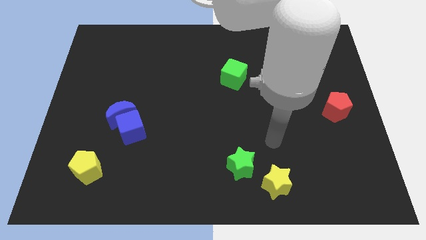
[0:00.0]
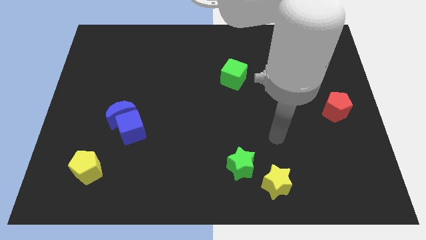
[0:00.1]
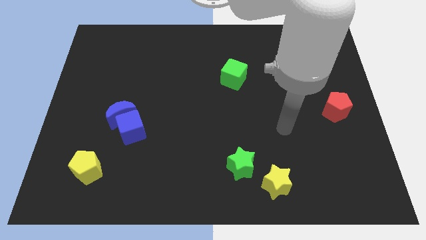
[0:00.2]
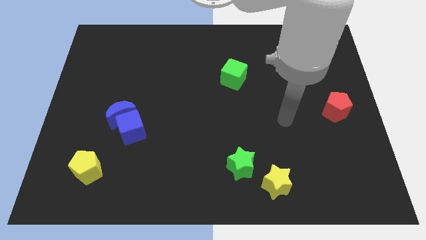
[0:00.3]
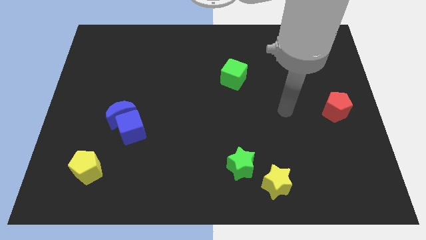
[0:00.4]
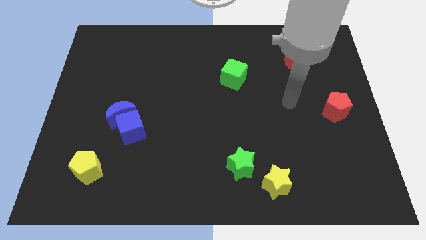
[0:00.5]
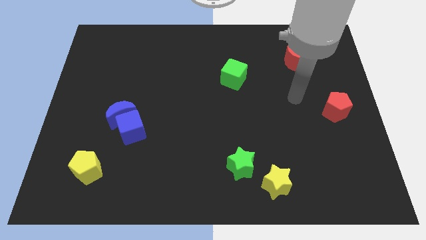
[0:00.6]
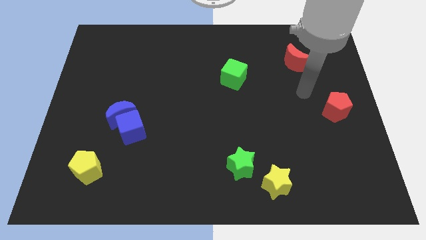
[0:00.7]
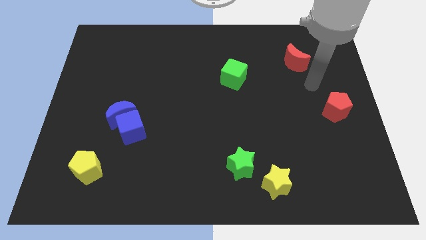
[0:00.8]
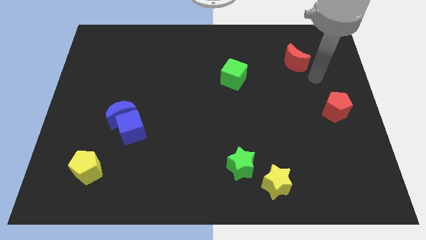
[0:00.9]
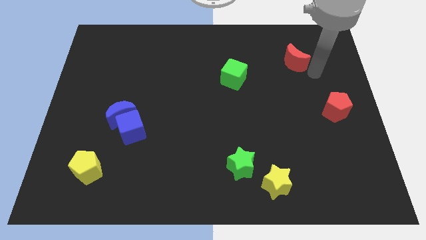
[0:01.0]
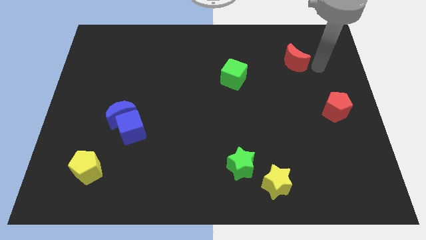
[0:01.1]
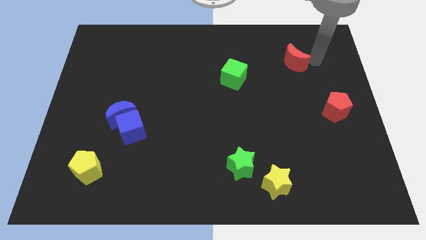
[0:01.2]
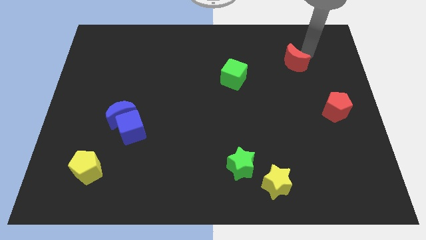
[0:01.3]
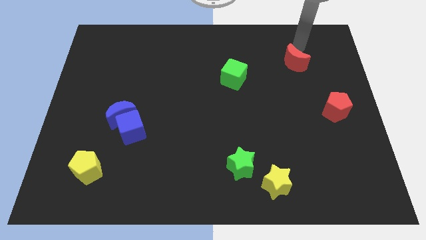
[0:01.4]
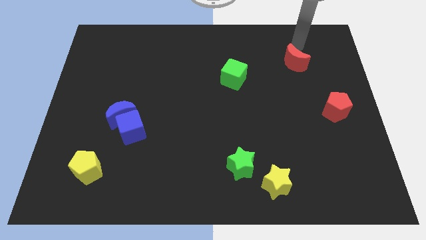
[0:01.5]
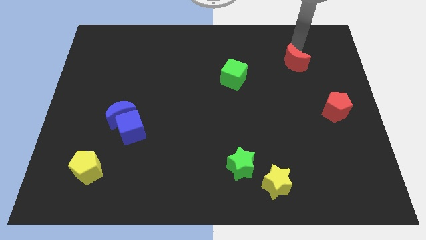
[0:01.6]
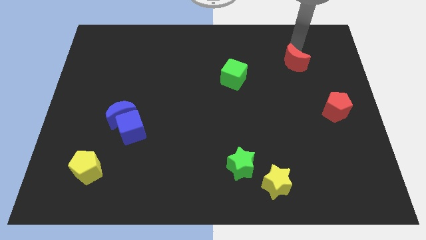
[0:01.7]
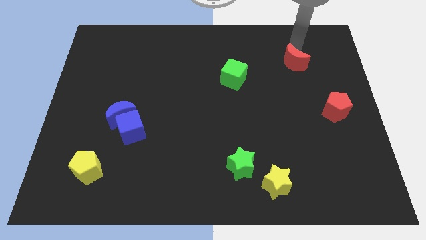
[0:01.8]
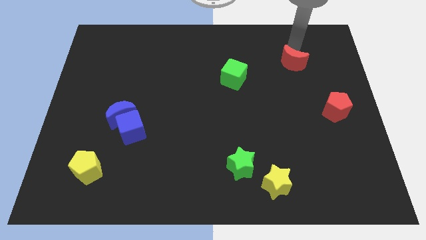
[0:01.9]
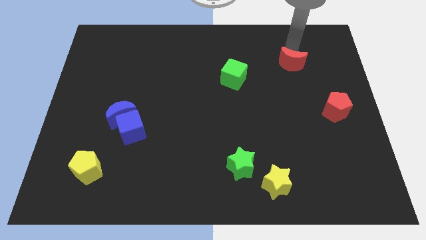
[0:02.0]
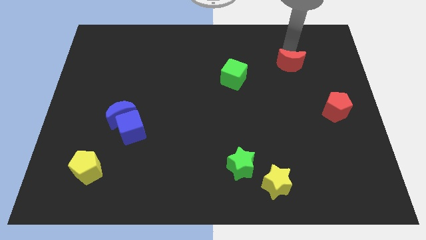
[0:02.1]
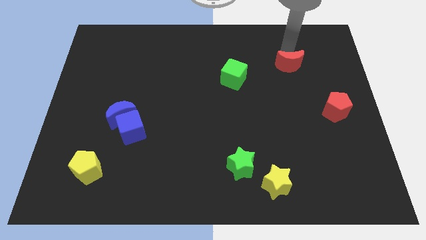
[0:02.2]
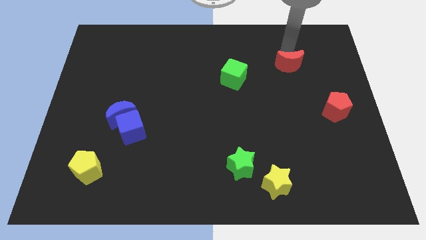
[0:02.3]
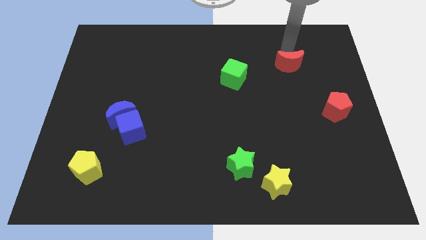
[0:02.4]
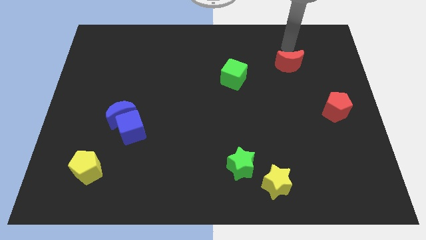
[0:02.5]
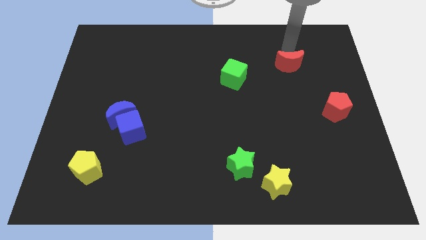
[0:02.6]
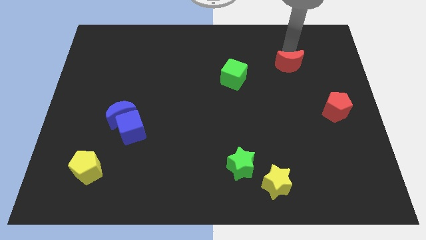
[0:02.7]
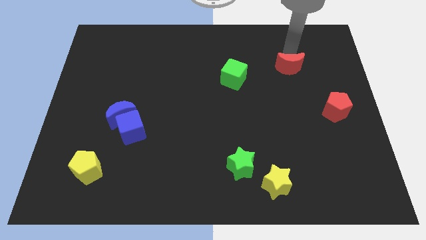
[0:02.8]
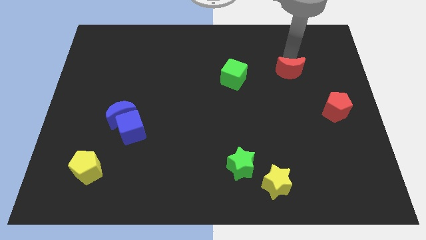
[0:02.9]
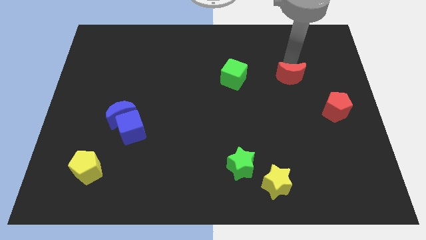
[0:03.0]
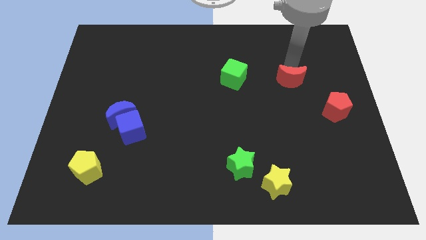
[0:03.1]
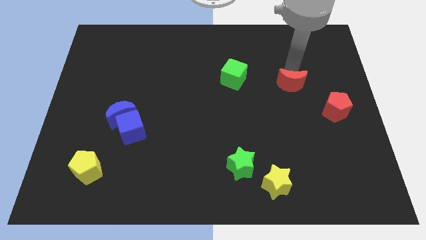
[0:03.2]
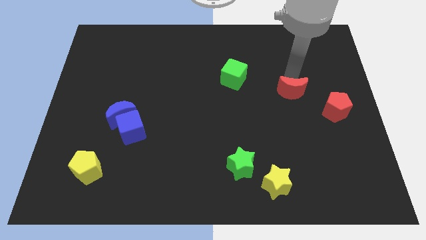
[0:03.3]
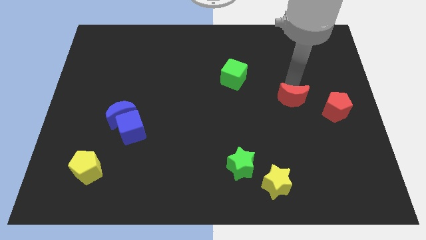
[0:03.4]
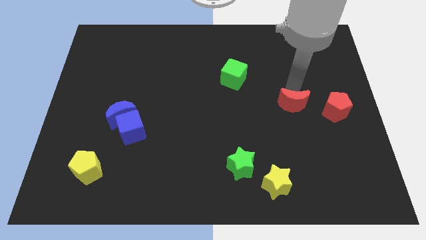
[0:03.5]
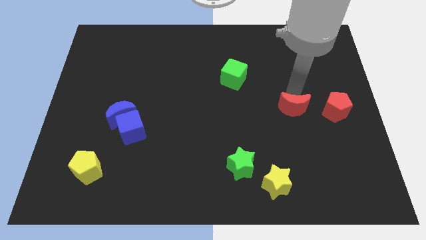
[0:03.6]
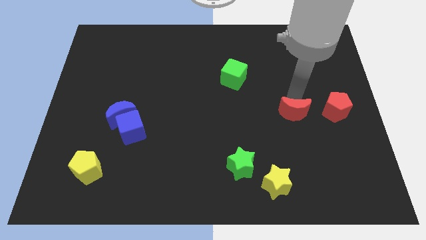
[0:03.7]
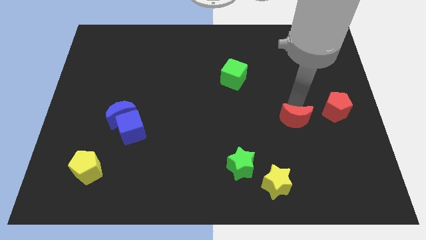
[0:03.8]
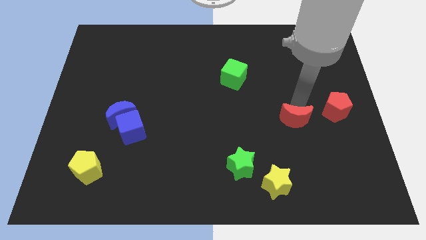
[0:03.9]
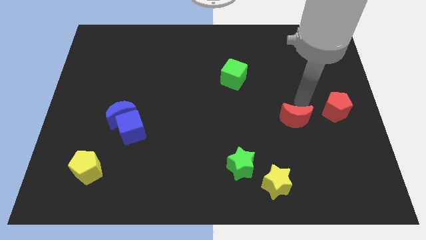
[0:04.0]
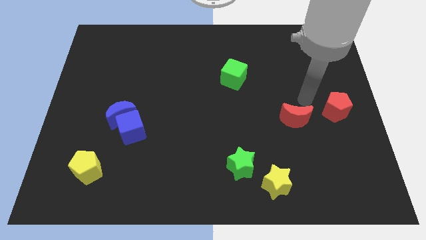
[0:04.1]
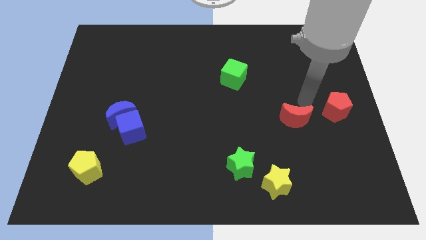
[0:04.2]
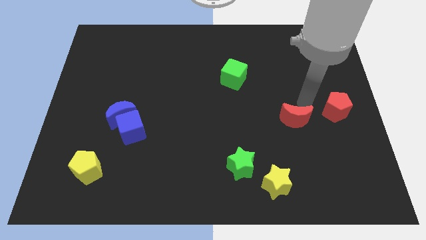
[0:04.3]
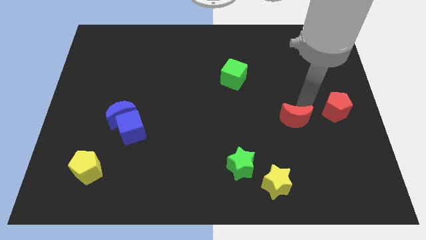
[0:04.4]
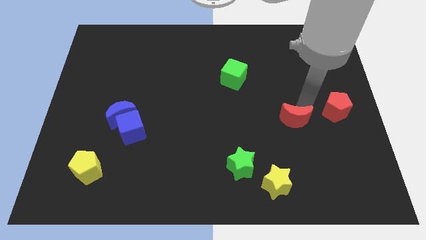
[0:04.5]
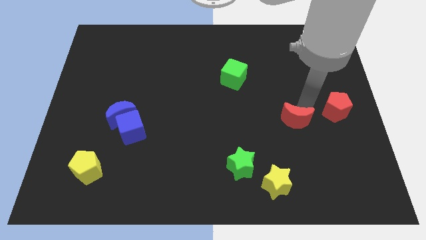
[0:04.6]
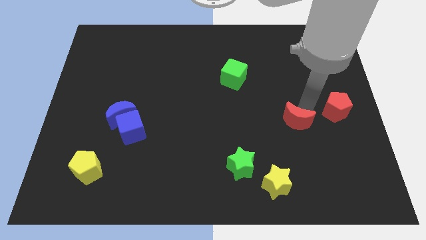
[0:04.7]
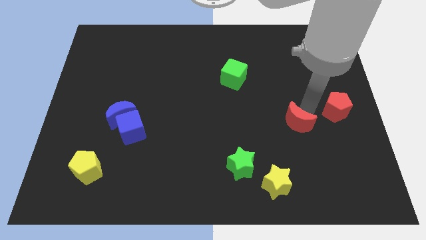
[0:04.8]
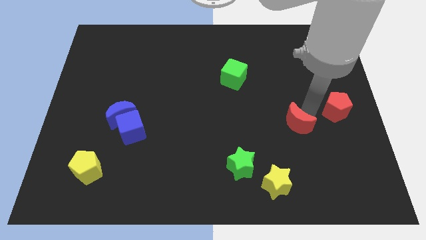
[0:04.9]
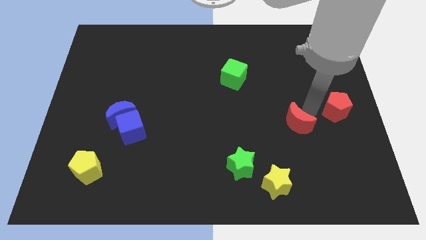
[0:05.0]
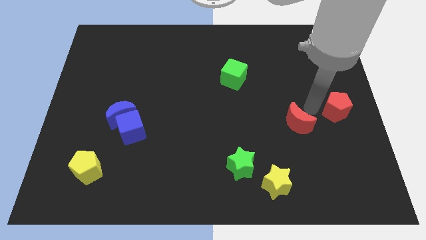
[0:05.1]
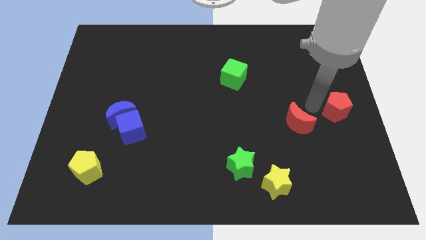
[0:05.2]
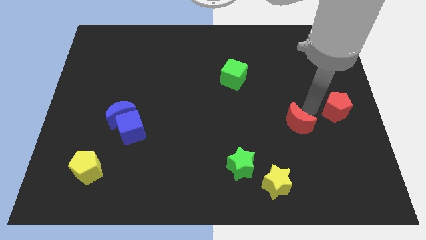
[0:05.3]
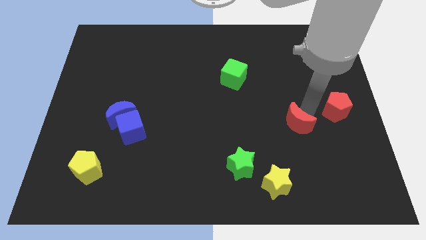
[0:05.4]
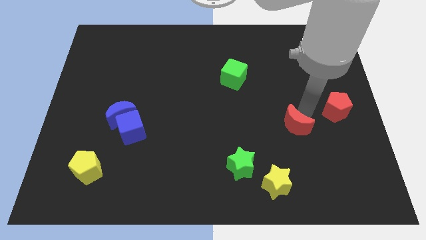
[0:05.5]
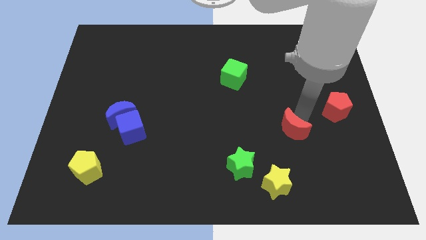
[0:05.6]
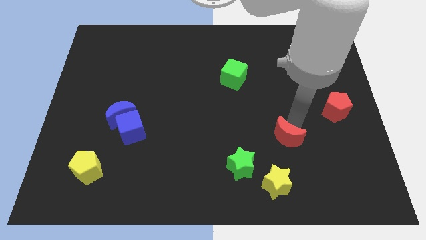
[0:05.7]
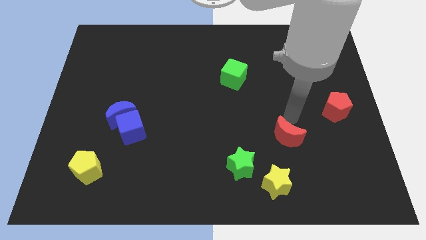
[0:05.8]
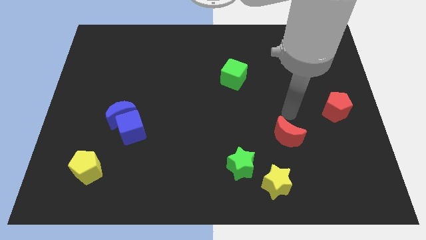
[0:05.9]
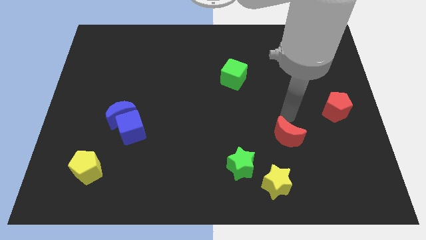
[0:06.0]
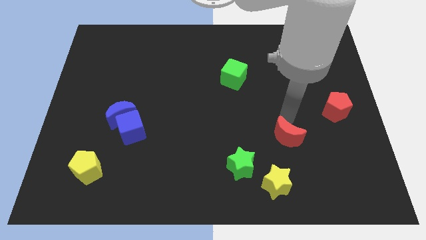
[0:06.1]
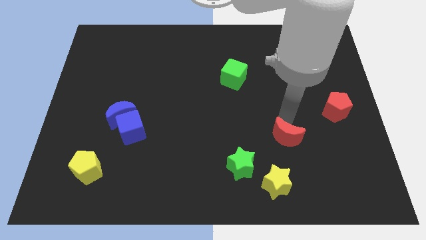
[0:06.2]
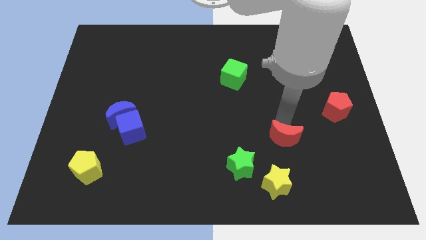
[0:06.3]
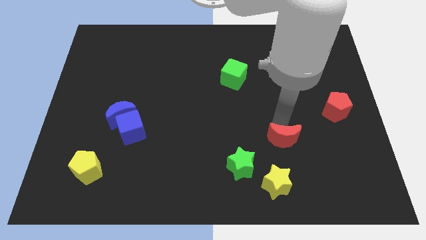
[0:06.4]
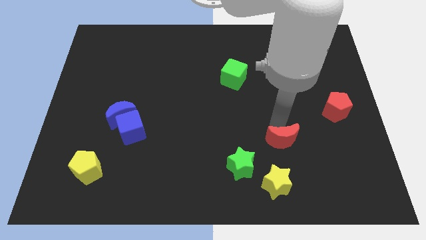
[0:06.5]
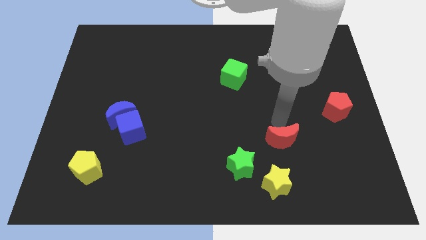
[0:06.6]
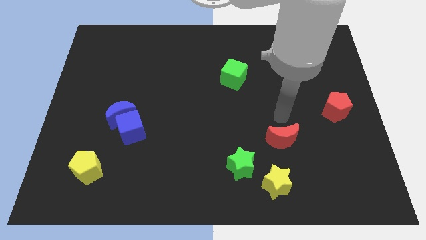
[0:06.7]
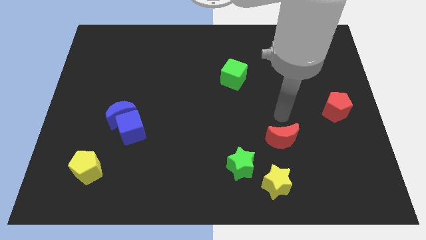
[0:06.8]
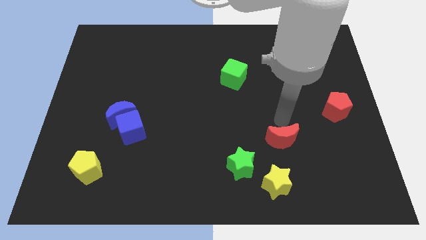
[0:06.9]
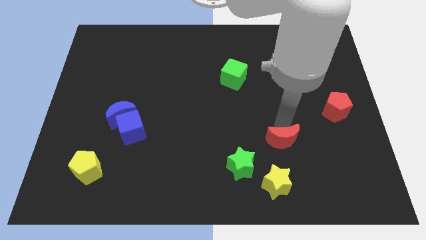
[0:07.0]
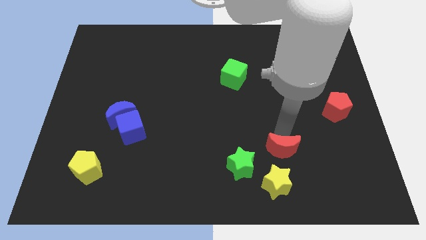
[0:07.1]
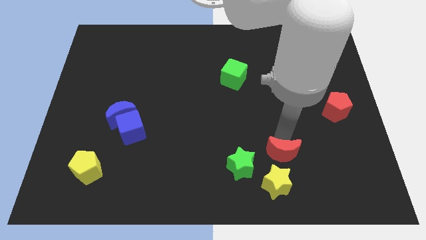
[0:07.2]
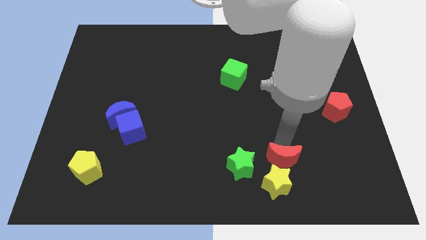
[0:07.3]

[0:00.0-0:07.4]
put the red moon to the yellow star
